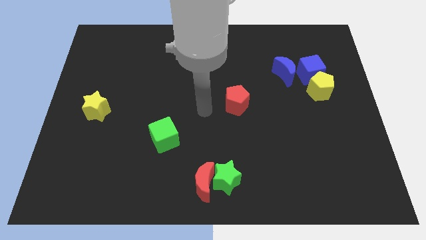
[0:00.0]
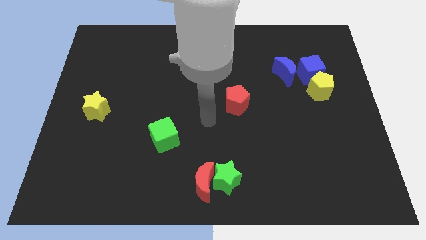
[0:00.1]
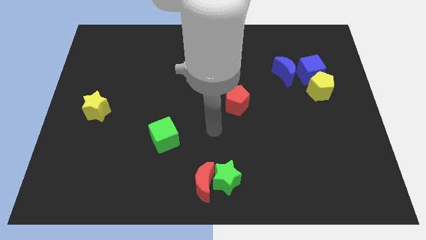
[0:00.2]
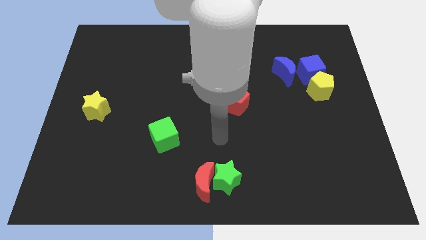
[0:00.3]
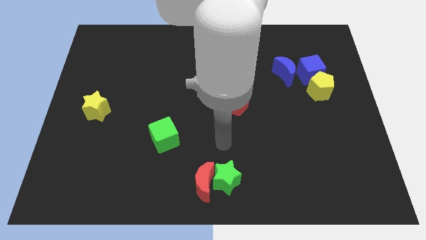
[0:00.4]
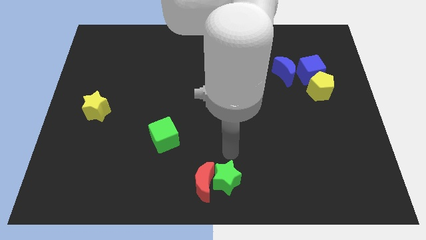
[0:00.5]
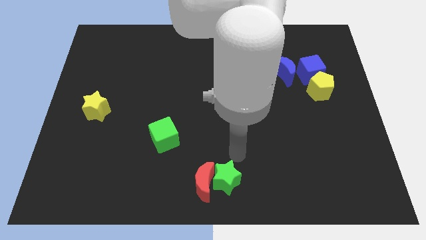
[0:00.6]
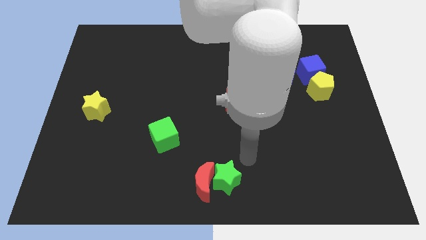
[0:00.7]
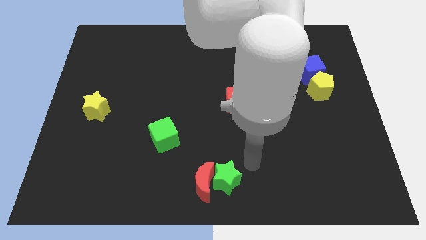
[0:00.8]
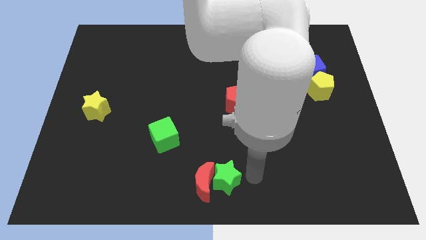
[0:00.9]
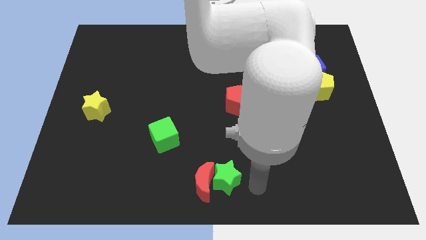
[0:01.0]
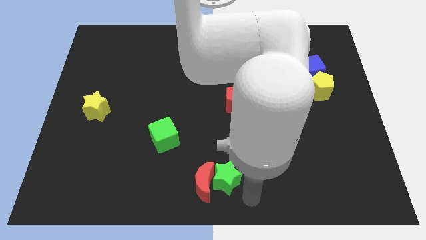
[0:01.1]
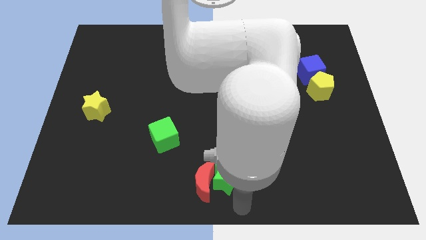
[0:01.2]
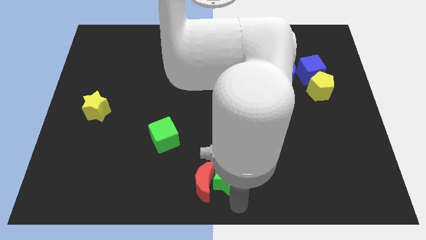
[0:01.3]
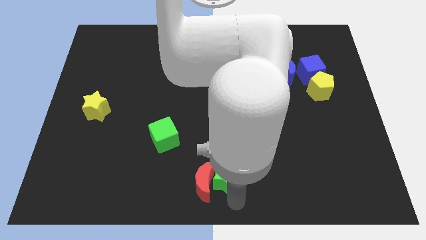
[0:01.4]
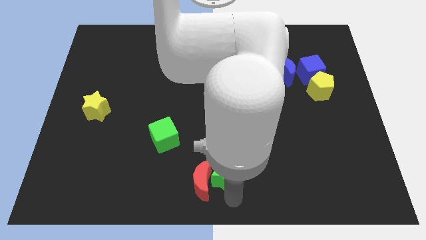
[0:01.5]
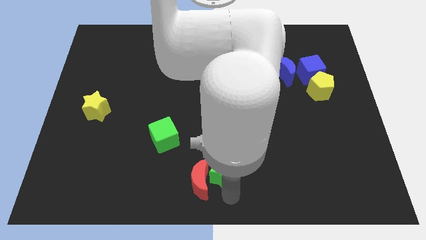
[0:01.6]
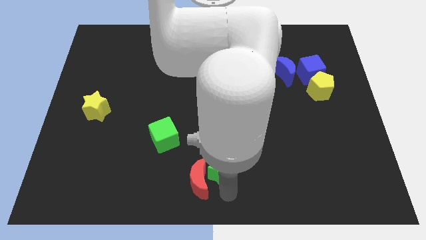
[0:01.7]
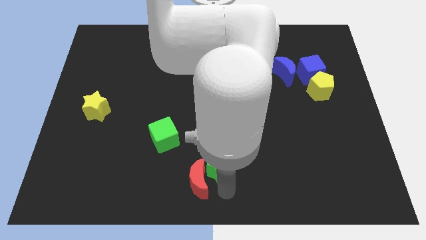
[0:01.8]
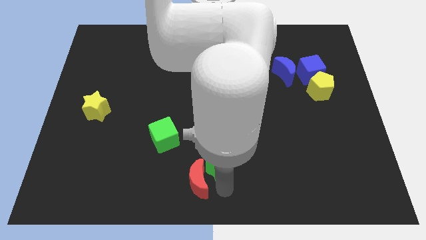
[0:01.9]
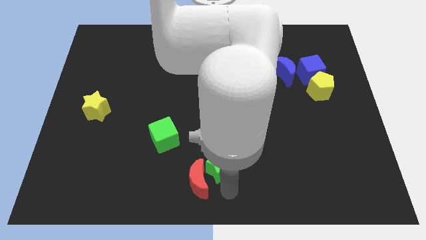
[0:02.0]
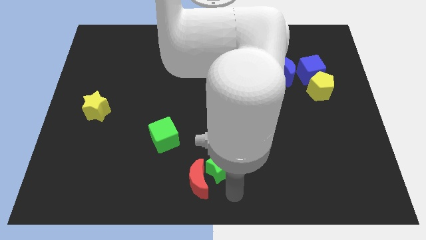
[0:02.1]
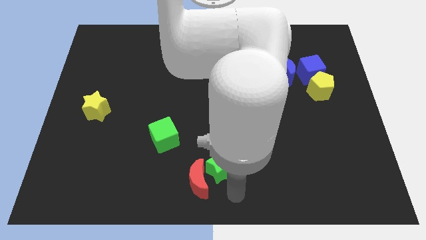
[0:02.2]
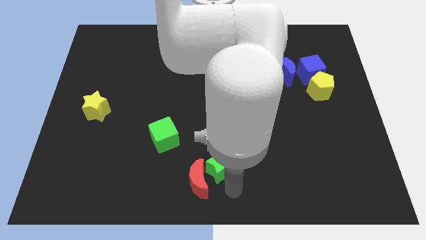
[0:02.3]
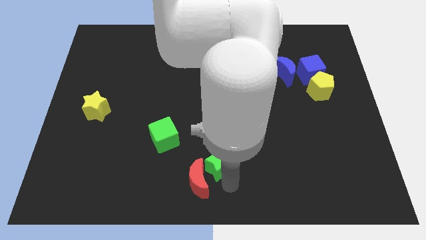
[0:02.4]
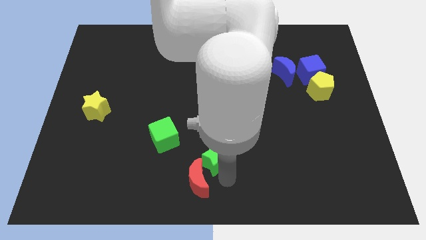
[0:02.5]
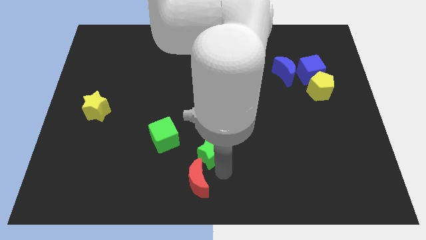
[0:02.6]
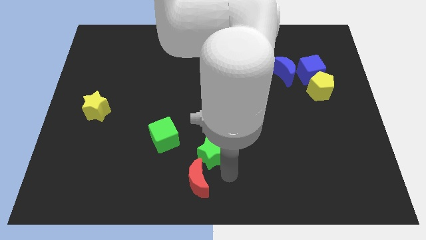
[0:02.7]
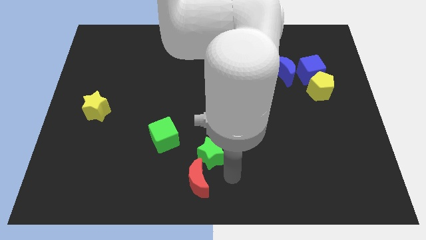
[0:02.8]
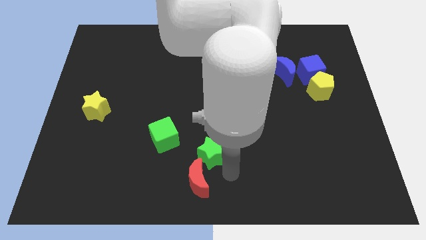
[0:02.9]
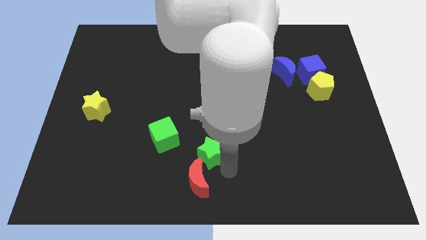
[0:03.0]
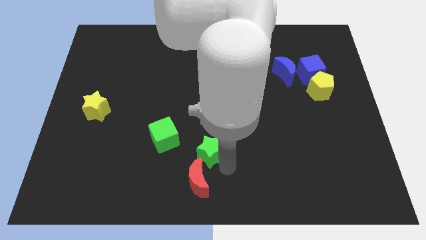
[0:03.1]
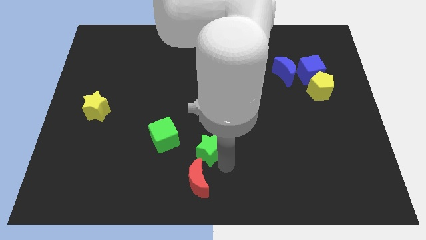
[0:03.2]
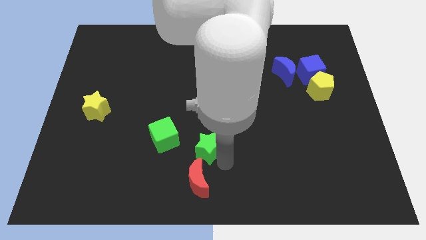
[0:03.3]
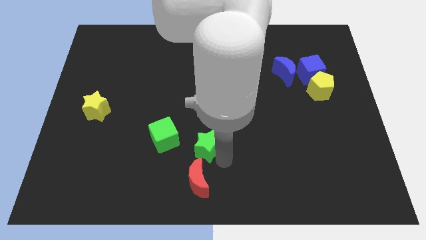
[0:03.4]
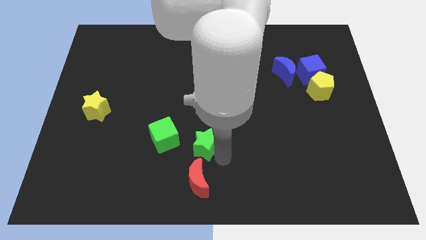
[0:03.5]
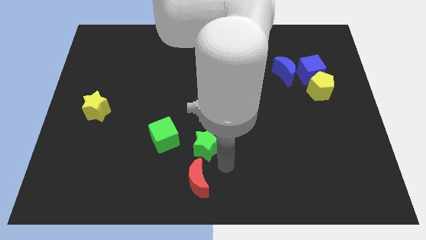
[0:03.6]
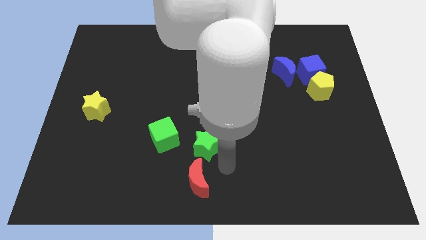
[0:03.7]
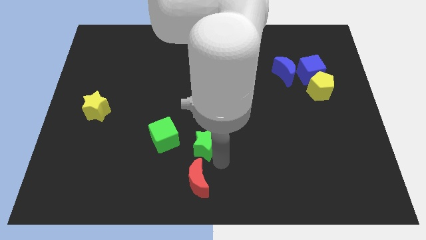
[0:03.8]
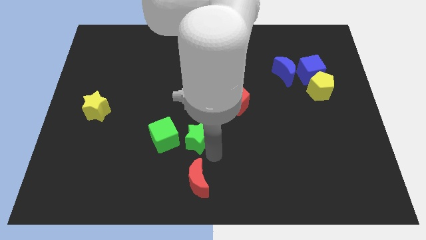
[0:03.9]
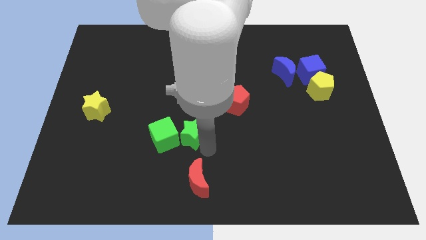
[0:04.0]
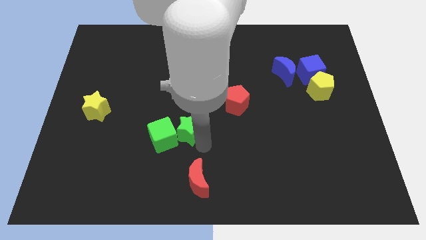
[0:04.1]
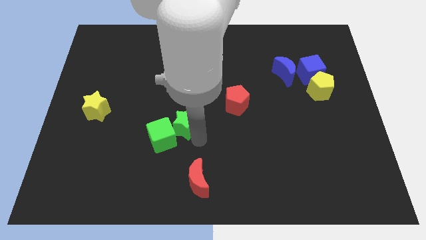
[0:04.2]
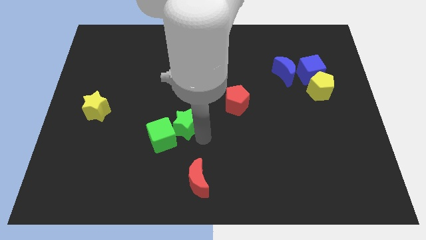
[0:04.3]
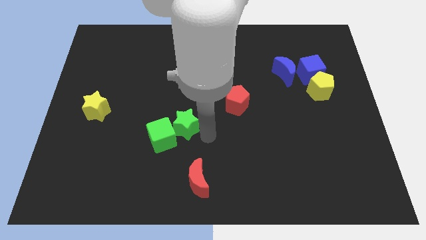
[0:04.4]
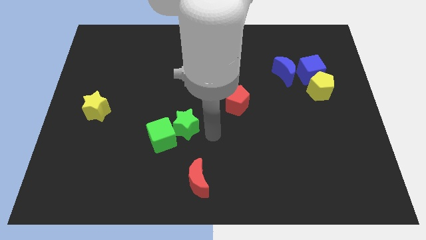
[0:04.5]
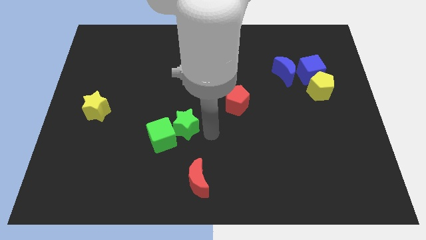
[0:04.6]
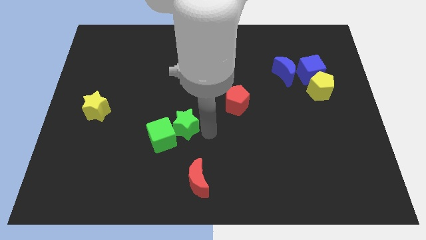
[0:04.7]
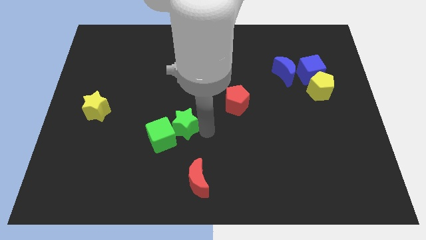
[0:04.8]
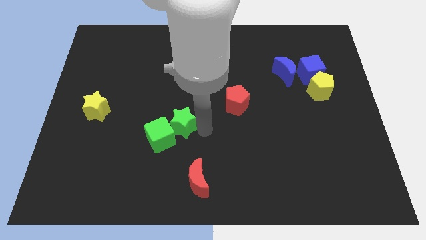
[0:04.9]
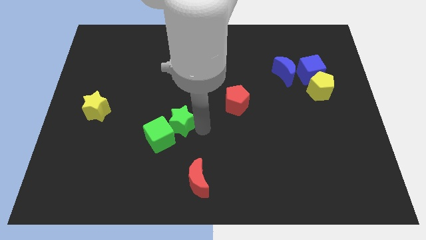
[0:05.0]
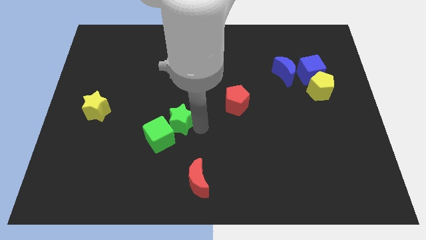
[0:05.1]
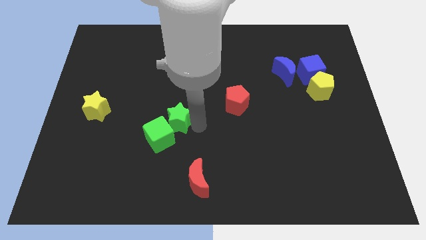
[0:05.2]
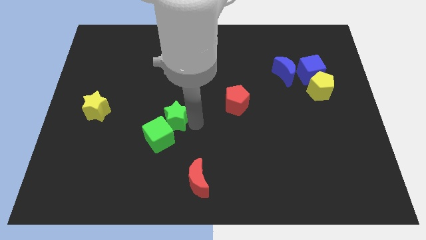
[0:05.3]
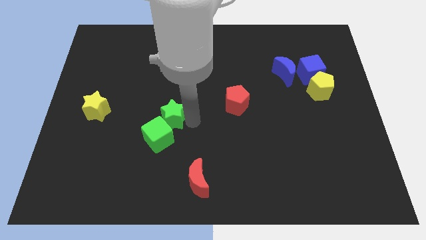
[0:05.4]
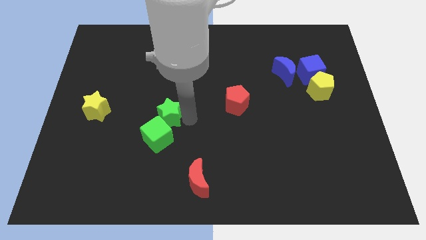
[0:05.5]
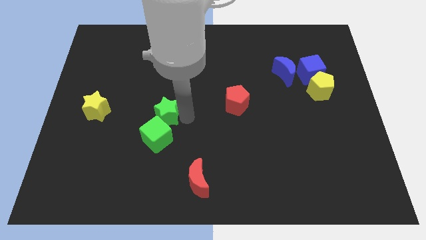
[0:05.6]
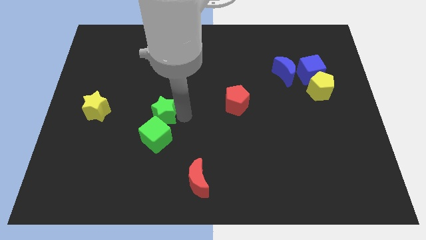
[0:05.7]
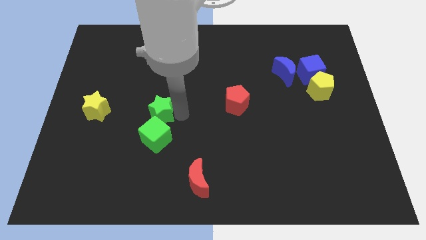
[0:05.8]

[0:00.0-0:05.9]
move the green star diagonally up and to the left of the green cube
